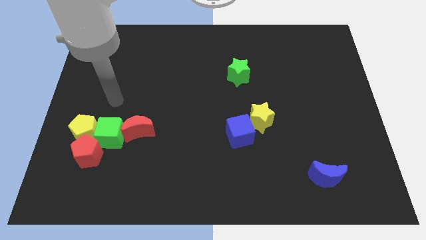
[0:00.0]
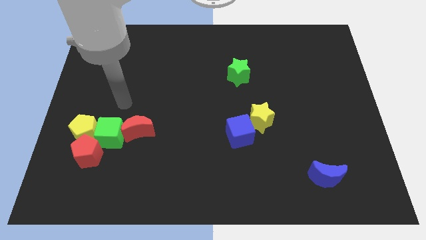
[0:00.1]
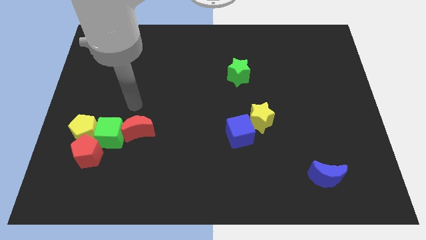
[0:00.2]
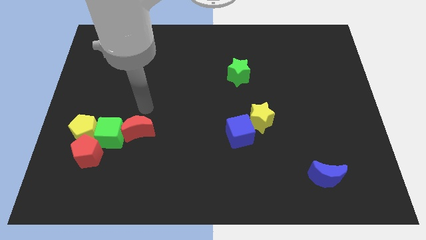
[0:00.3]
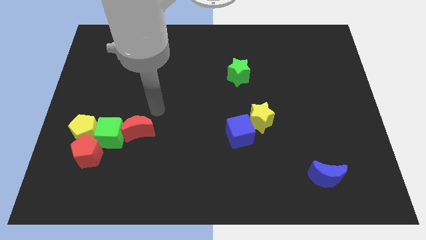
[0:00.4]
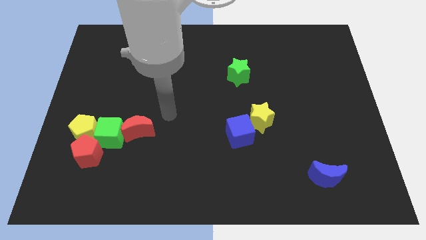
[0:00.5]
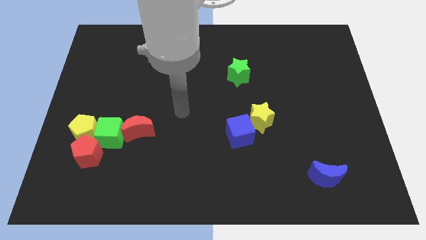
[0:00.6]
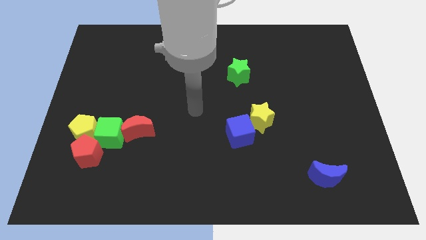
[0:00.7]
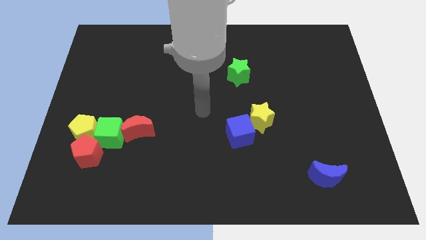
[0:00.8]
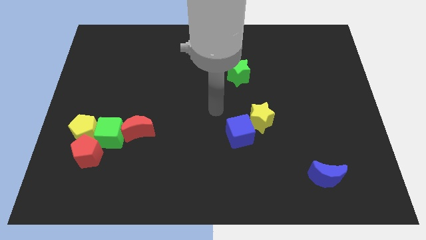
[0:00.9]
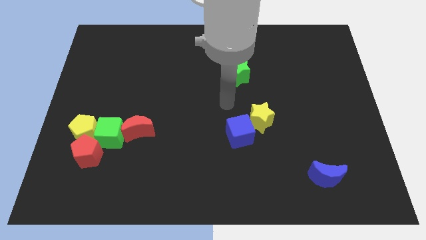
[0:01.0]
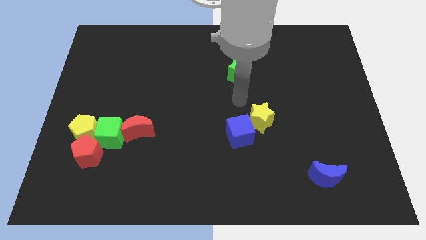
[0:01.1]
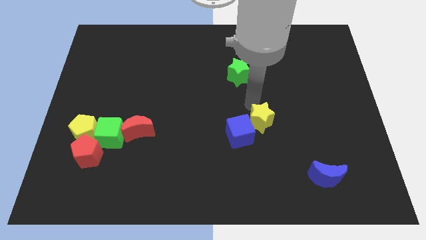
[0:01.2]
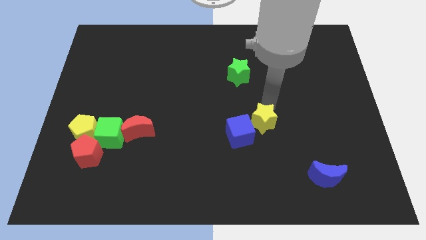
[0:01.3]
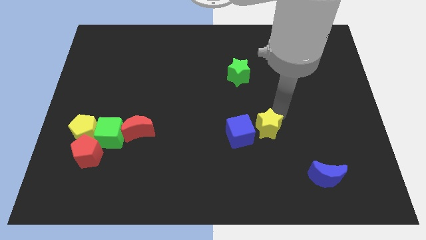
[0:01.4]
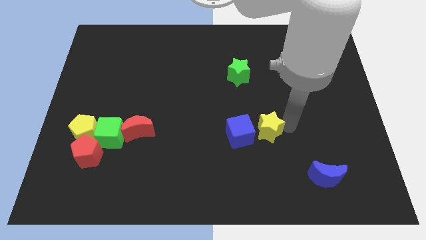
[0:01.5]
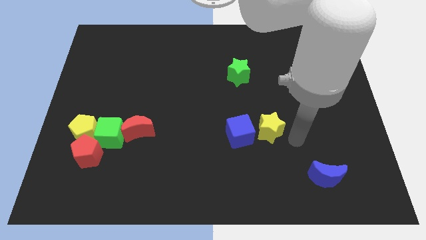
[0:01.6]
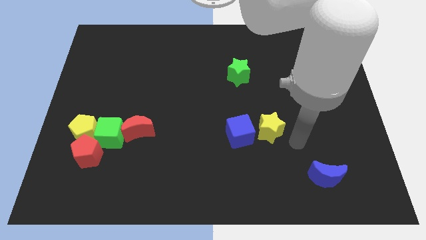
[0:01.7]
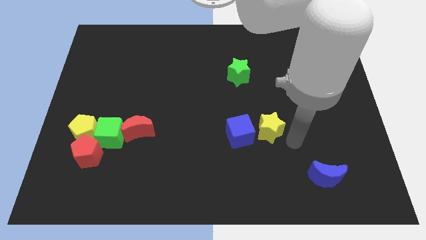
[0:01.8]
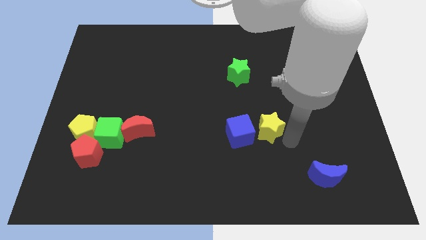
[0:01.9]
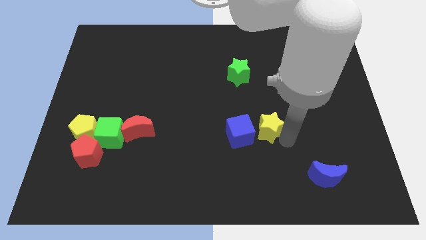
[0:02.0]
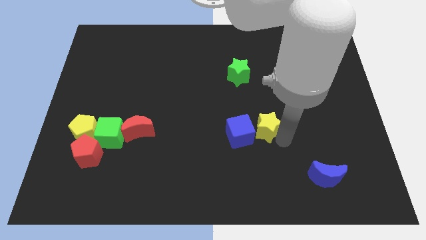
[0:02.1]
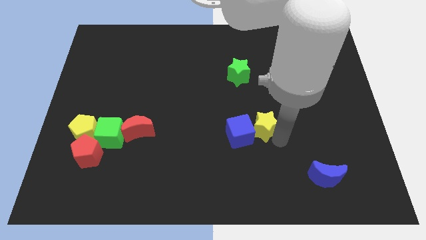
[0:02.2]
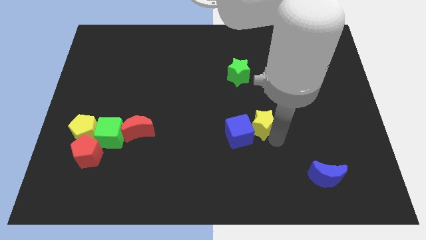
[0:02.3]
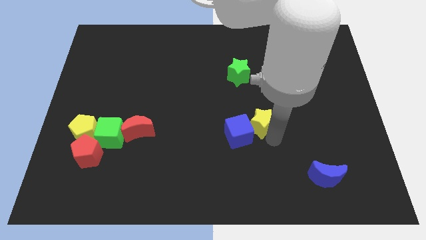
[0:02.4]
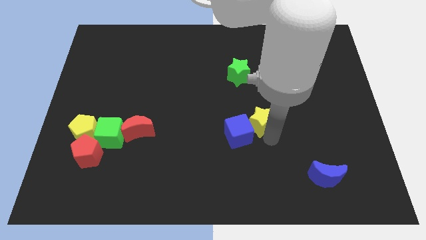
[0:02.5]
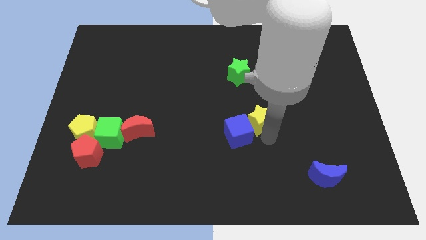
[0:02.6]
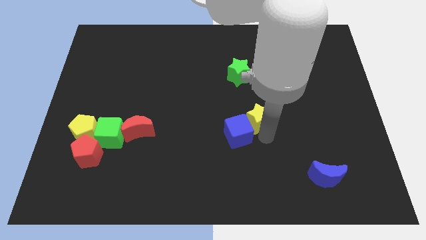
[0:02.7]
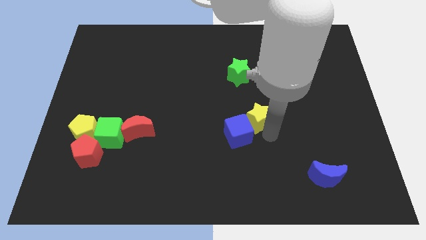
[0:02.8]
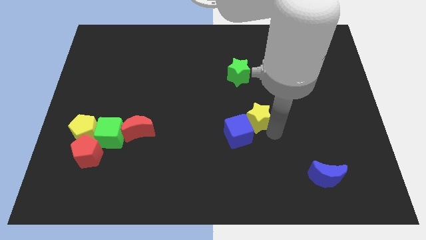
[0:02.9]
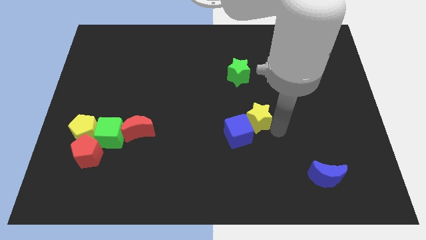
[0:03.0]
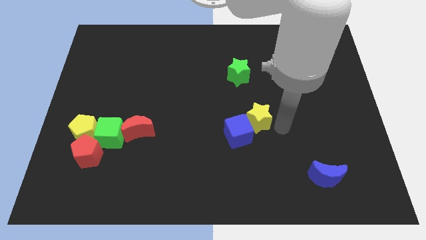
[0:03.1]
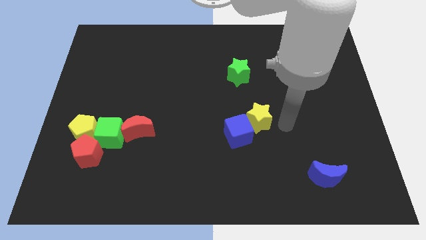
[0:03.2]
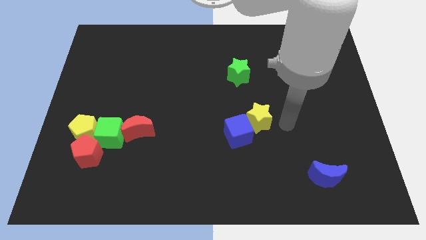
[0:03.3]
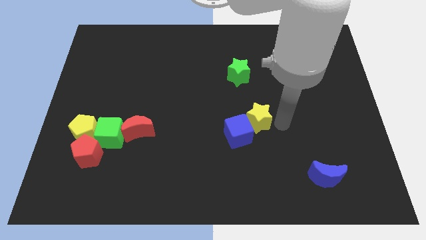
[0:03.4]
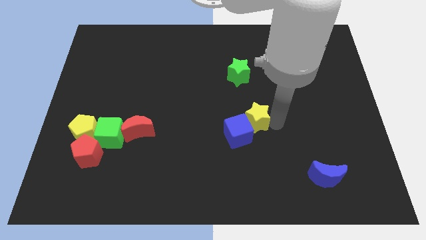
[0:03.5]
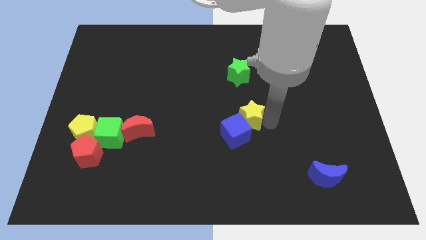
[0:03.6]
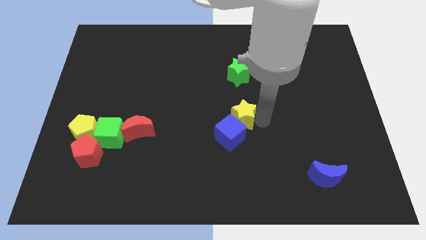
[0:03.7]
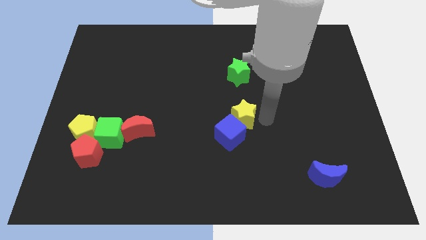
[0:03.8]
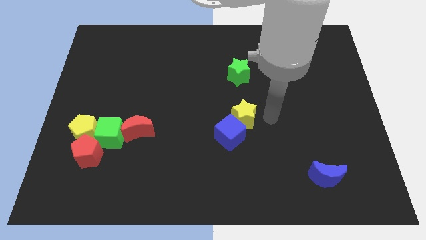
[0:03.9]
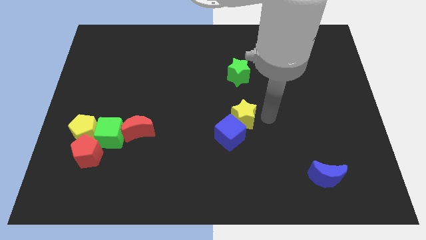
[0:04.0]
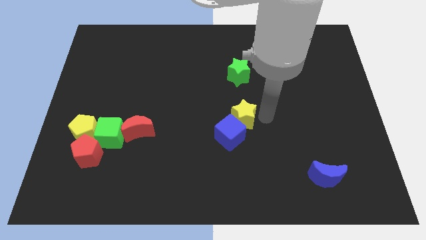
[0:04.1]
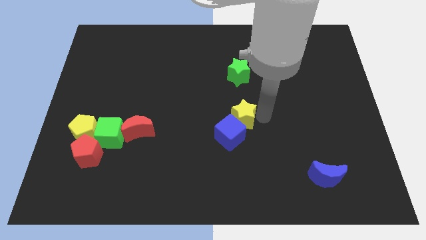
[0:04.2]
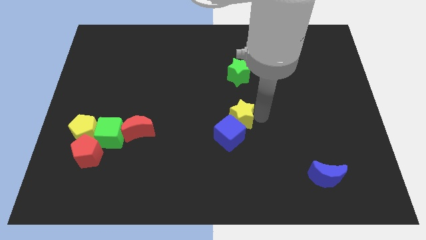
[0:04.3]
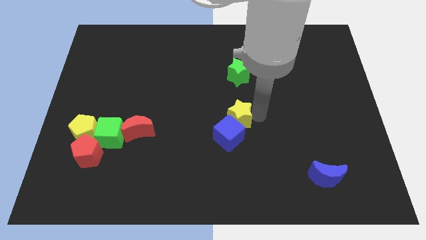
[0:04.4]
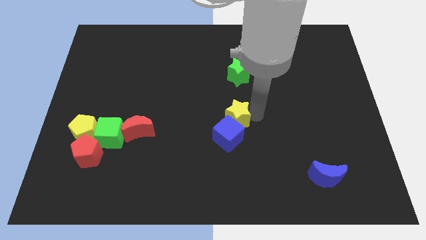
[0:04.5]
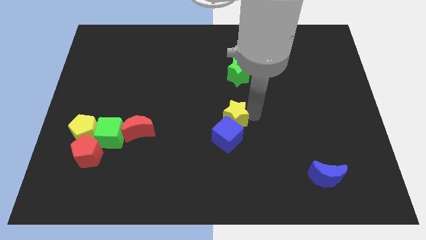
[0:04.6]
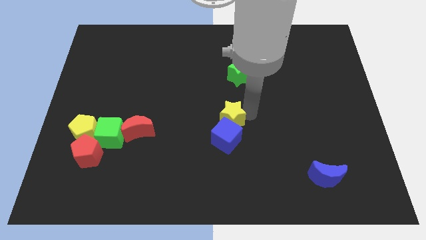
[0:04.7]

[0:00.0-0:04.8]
slide the yellow star a bit to the left

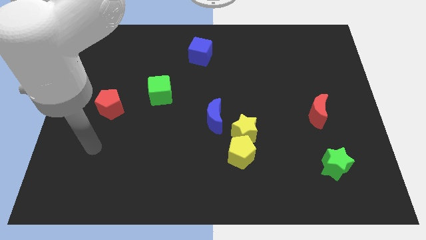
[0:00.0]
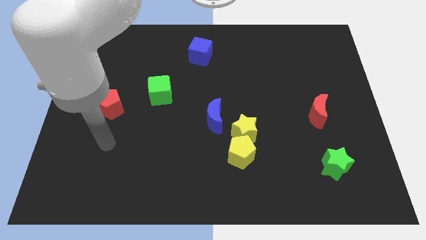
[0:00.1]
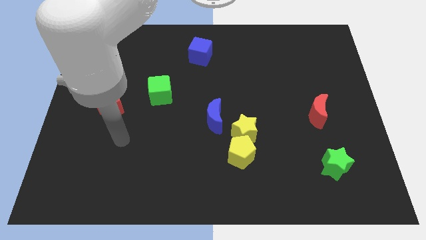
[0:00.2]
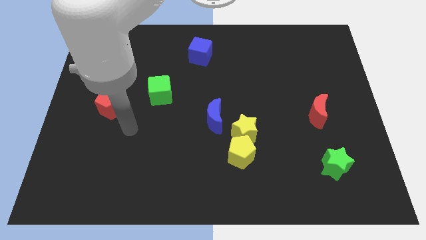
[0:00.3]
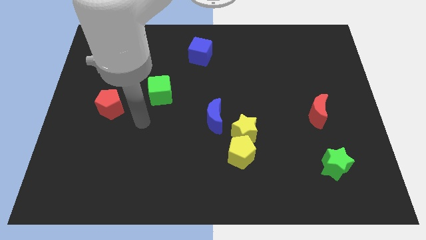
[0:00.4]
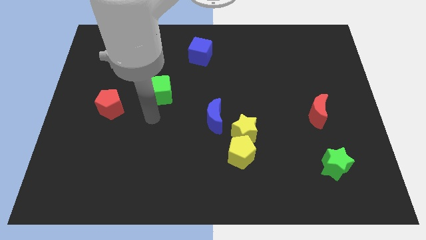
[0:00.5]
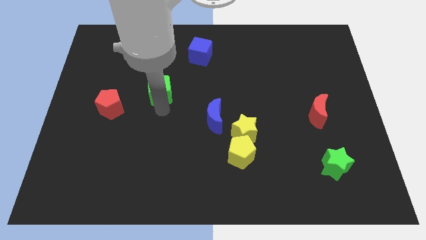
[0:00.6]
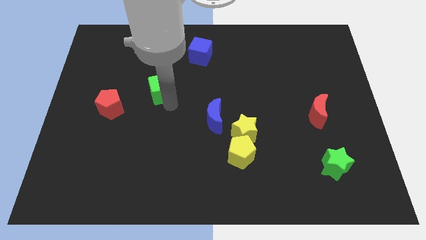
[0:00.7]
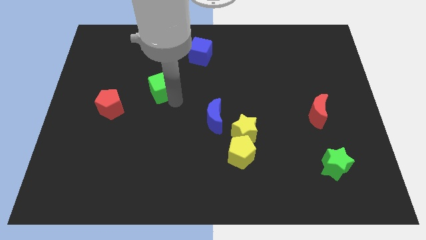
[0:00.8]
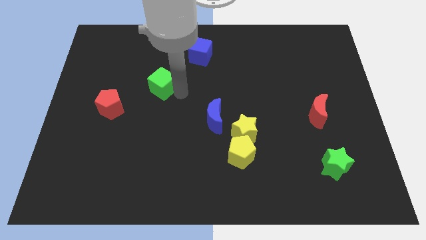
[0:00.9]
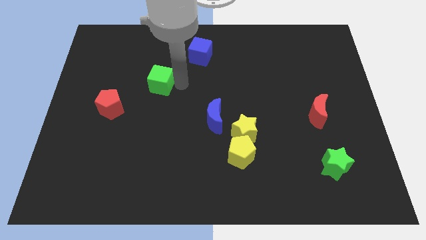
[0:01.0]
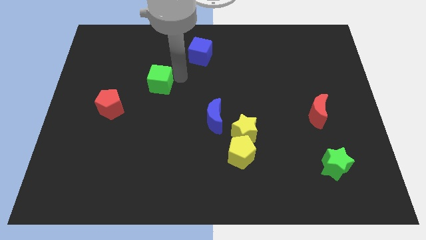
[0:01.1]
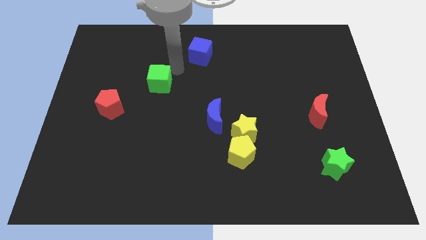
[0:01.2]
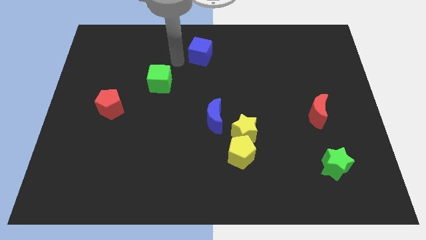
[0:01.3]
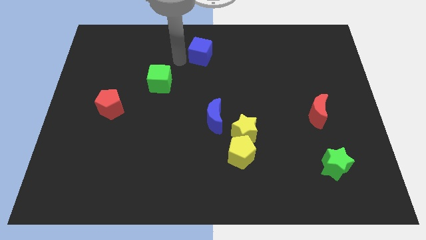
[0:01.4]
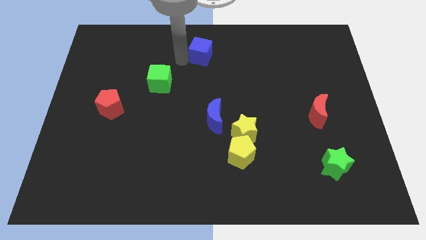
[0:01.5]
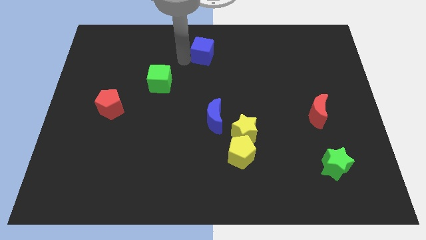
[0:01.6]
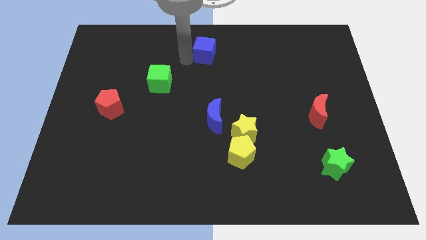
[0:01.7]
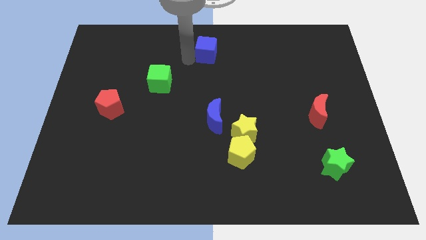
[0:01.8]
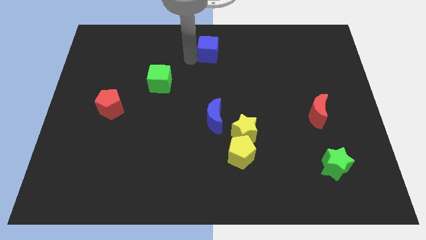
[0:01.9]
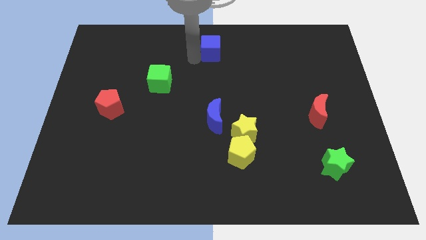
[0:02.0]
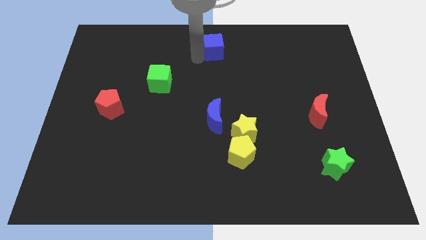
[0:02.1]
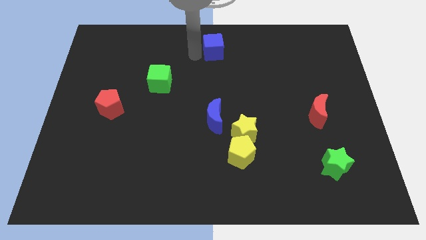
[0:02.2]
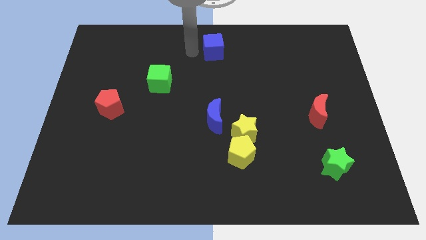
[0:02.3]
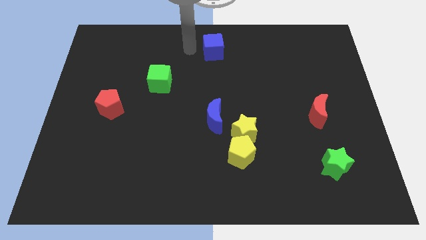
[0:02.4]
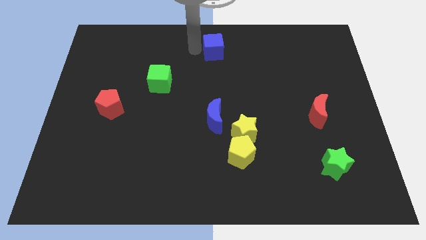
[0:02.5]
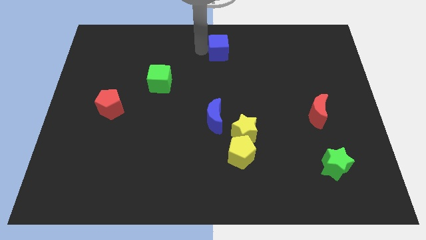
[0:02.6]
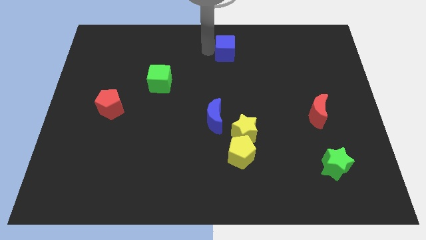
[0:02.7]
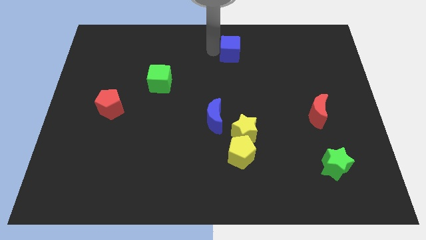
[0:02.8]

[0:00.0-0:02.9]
slide the blue cube somewhat right
